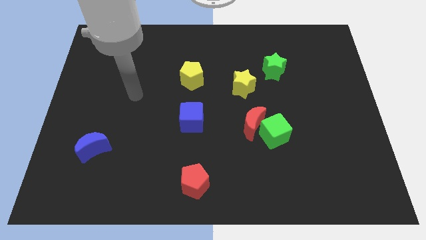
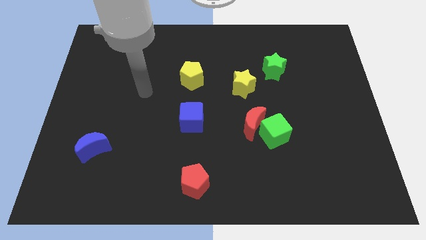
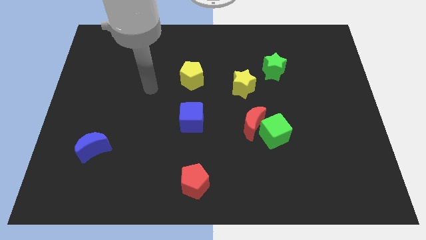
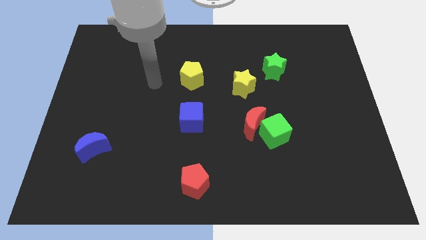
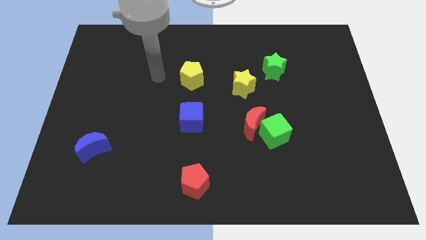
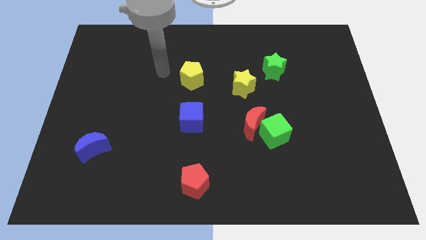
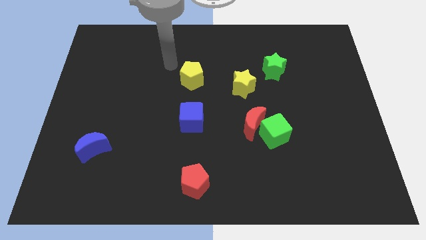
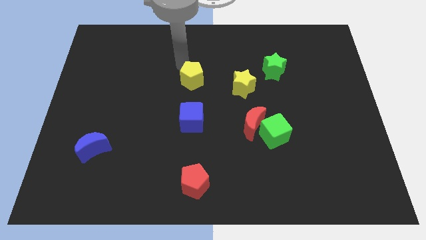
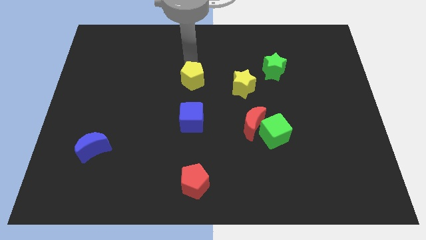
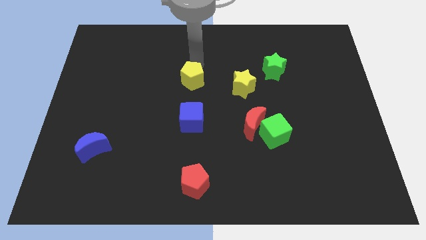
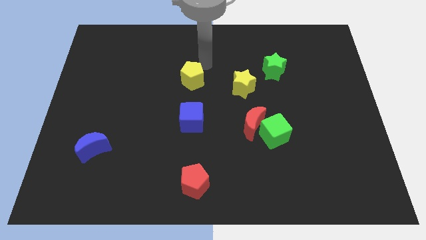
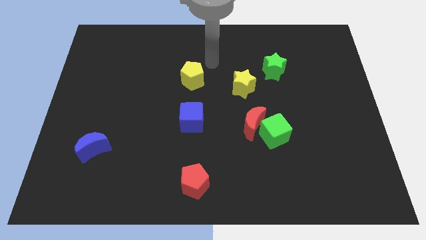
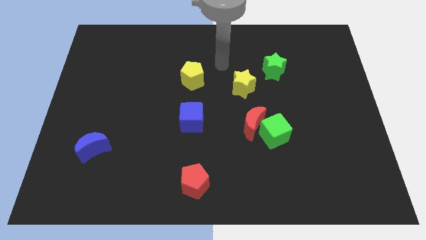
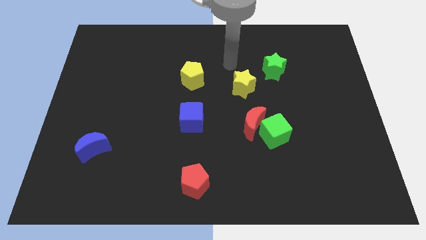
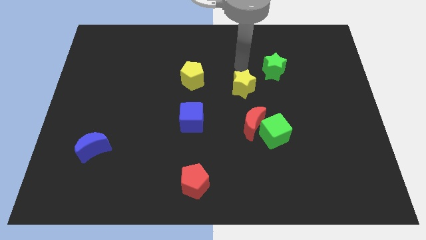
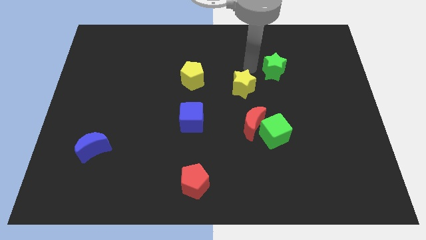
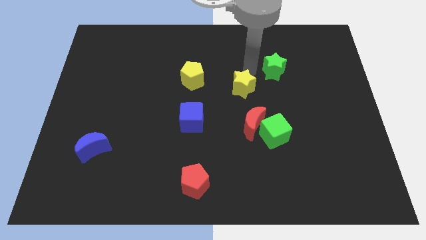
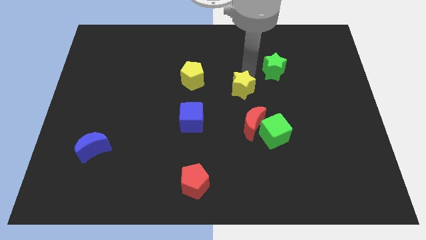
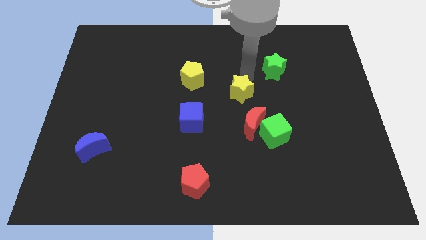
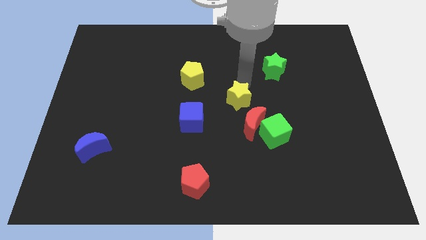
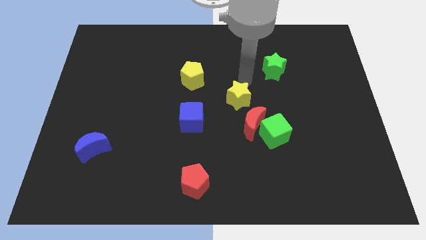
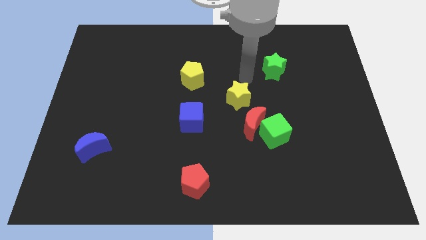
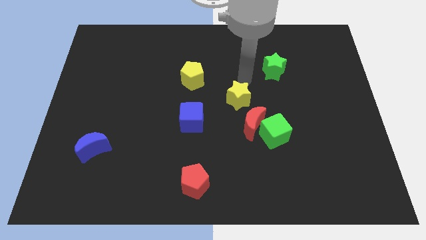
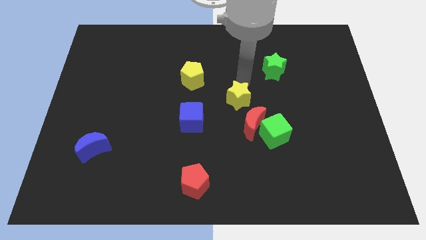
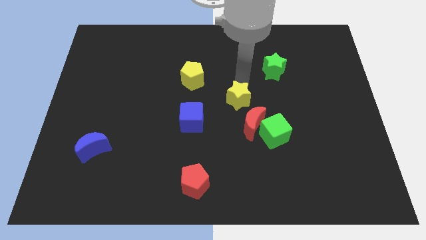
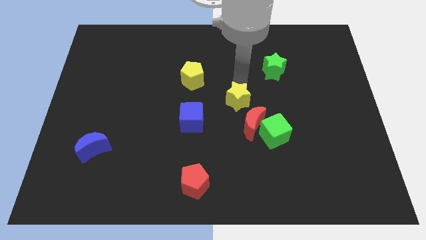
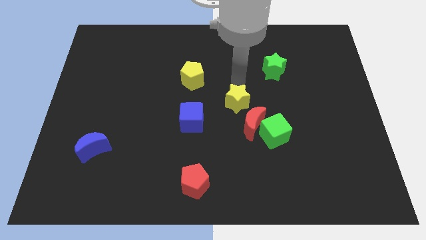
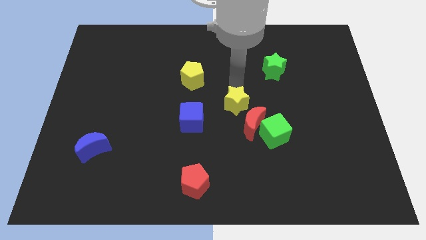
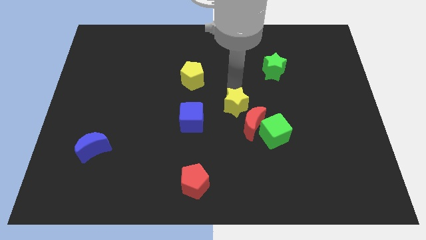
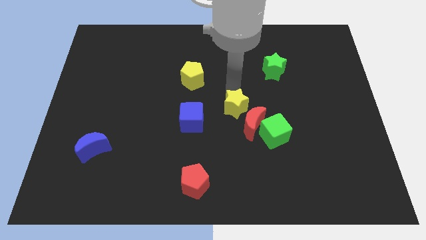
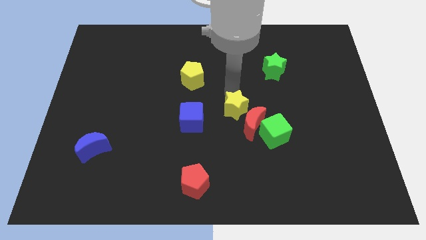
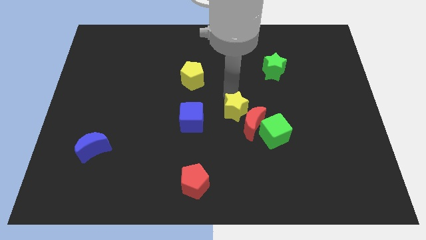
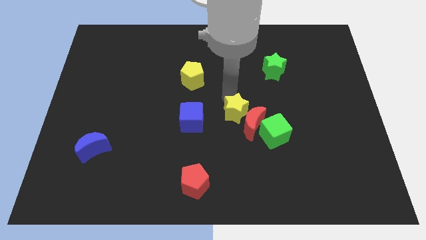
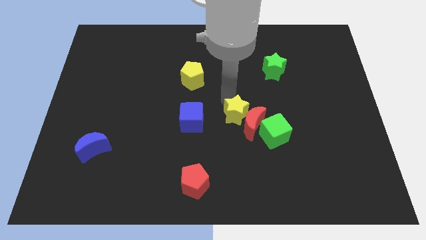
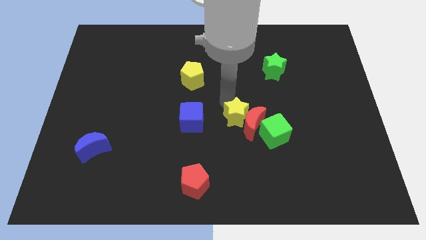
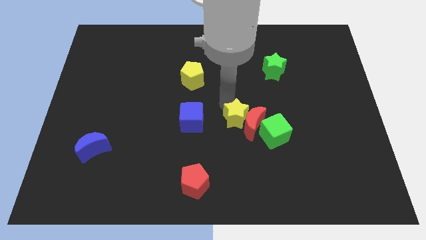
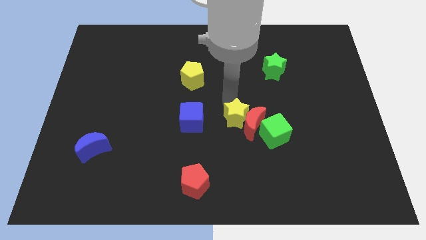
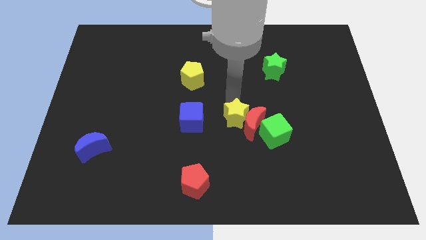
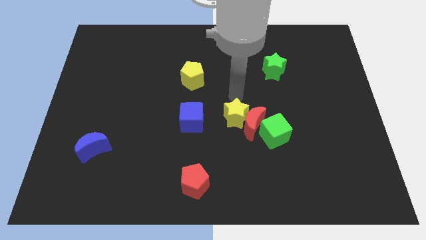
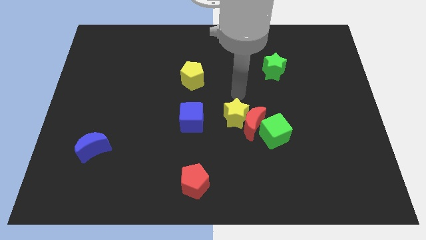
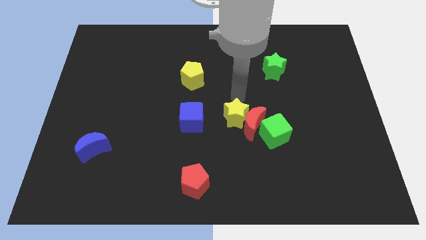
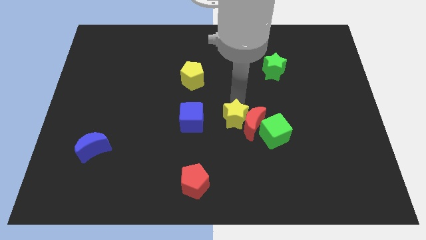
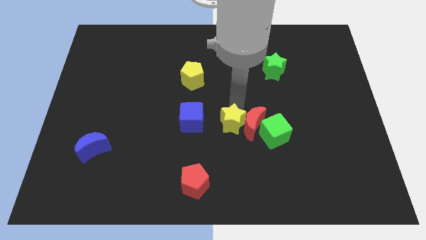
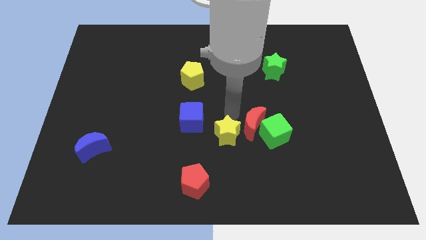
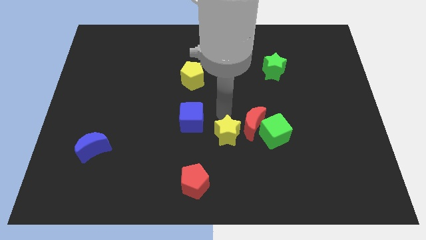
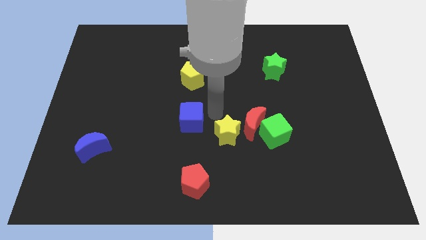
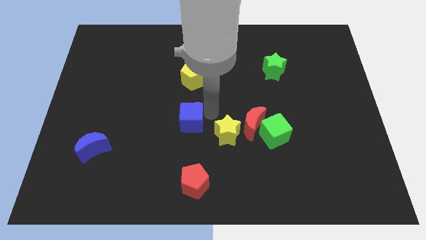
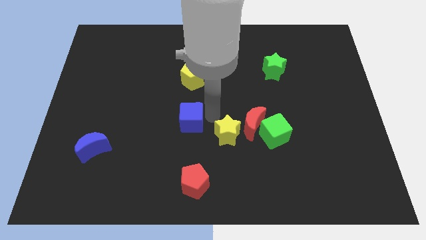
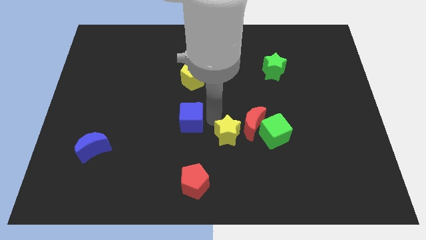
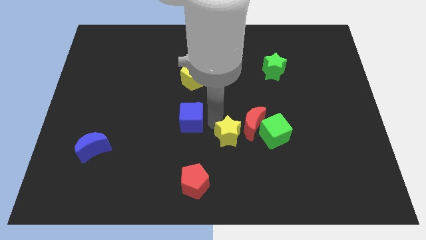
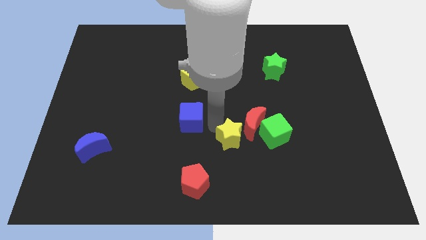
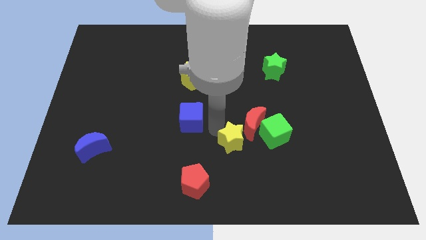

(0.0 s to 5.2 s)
move the yellow star to the bottom of the red moon
